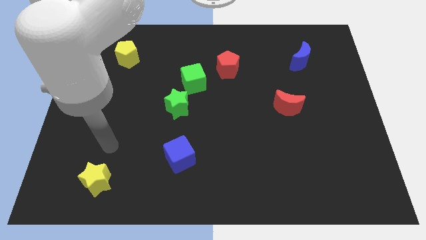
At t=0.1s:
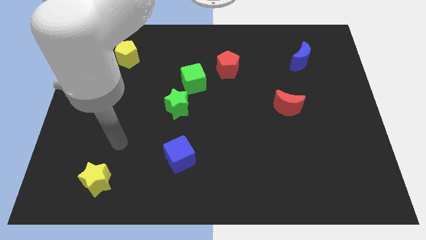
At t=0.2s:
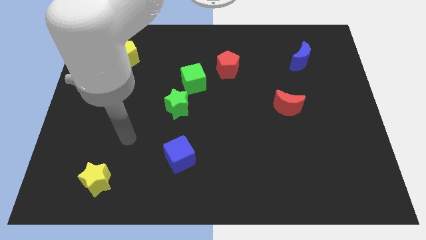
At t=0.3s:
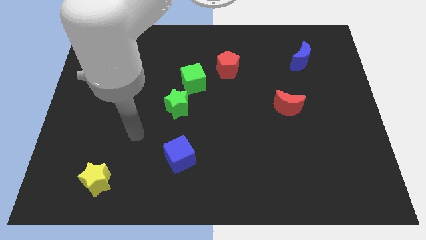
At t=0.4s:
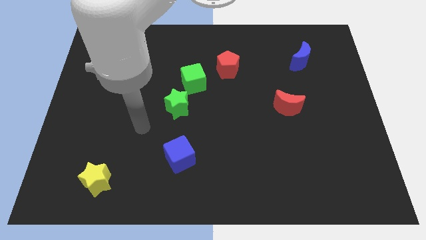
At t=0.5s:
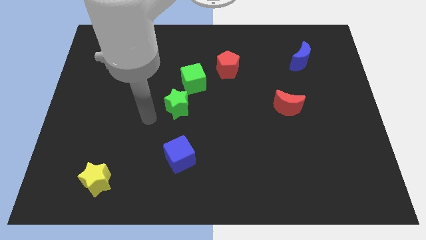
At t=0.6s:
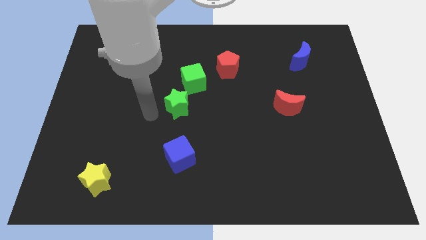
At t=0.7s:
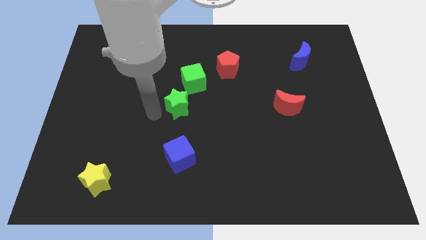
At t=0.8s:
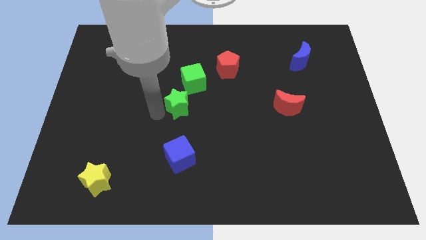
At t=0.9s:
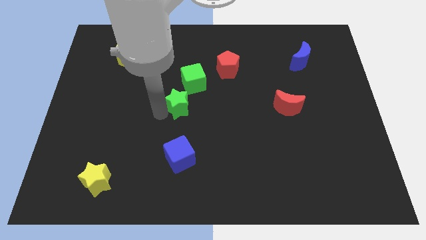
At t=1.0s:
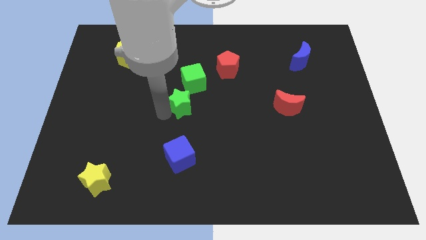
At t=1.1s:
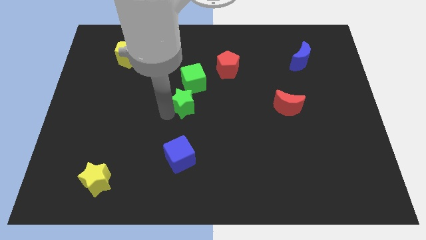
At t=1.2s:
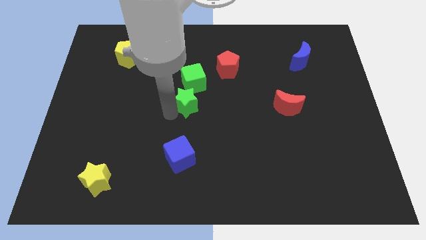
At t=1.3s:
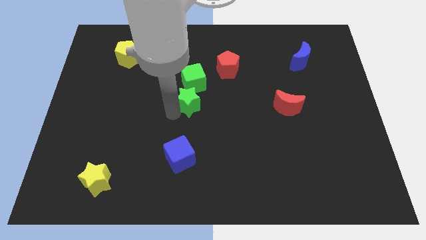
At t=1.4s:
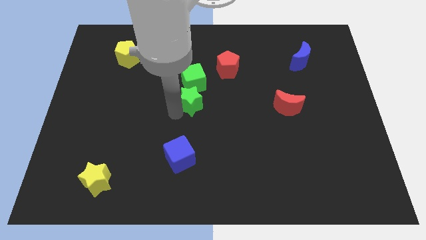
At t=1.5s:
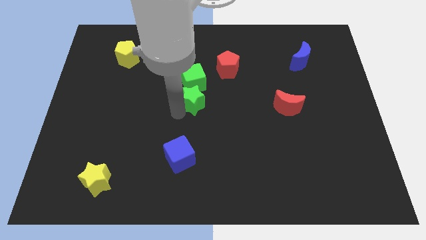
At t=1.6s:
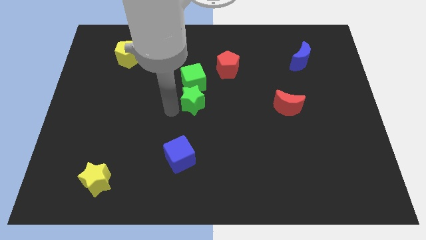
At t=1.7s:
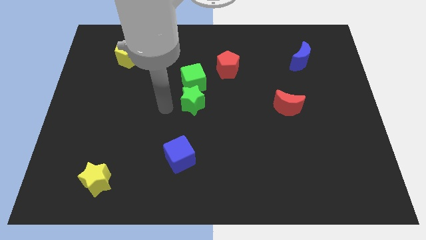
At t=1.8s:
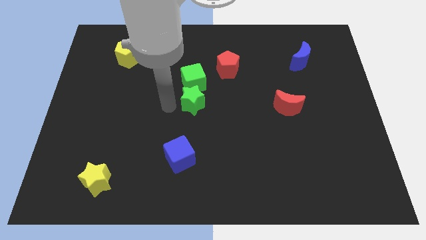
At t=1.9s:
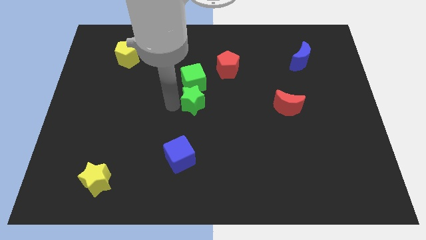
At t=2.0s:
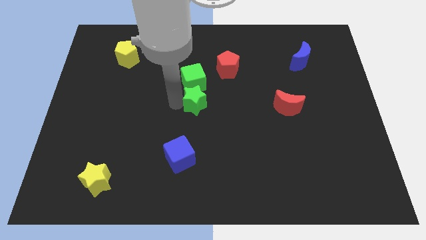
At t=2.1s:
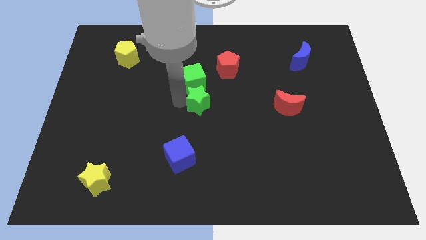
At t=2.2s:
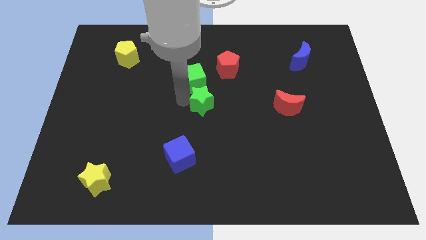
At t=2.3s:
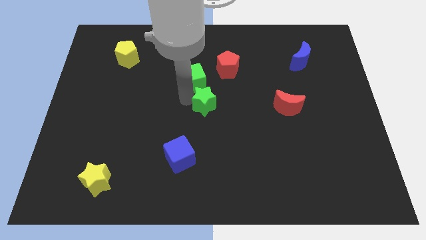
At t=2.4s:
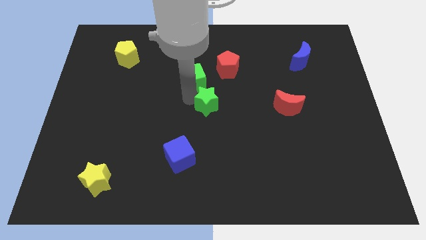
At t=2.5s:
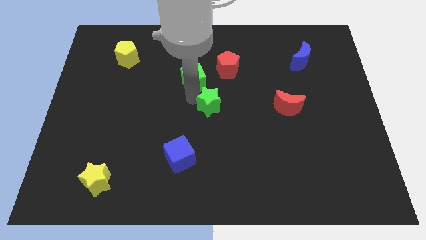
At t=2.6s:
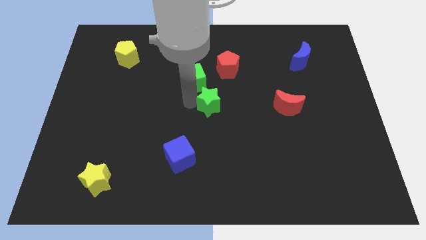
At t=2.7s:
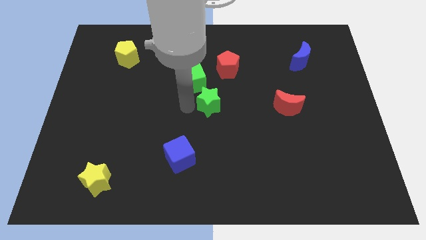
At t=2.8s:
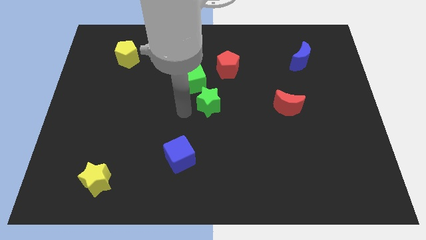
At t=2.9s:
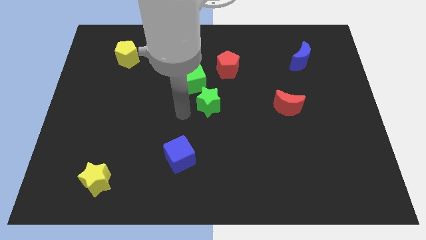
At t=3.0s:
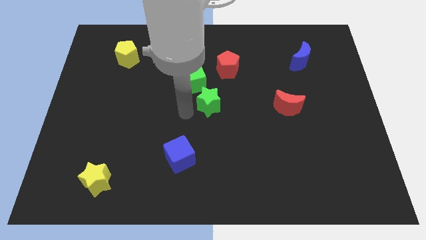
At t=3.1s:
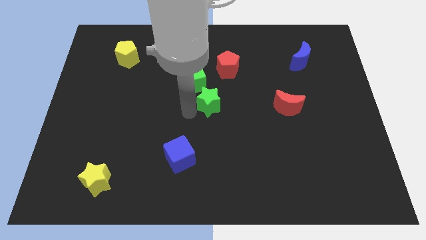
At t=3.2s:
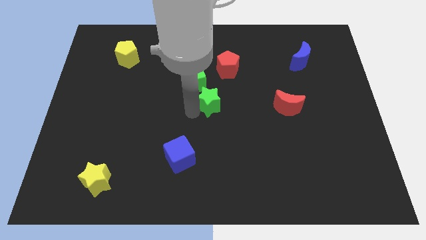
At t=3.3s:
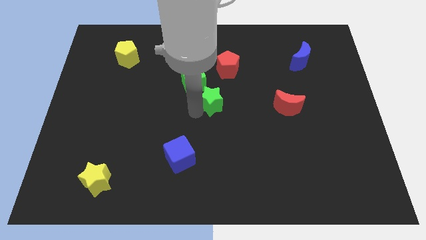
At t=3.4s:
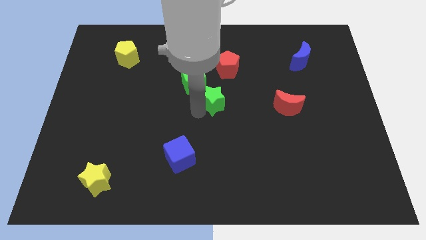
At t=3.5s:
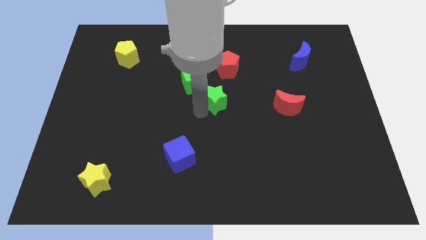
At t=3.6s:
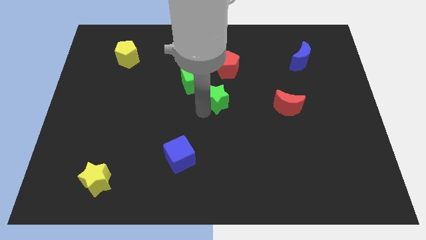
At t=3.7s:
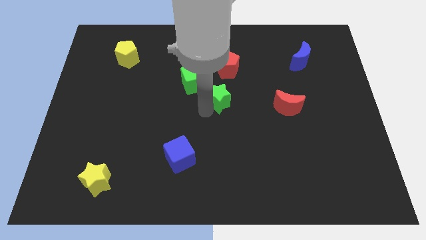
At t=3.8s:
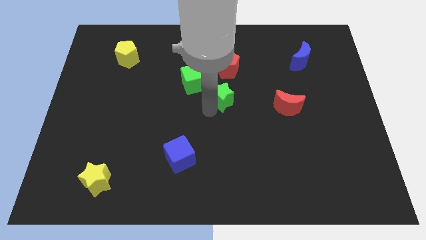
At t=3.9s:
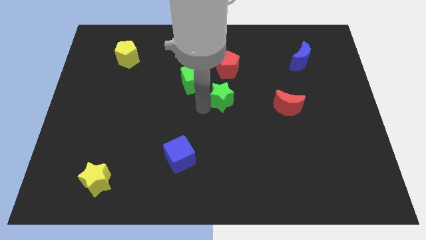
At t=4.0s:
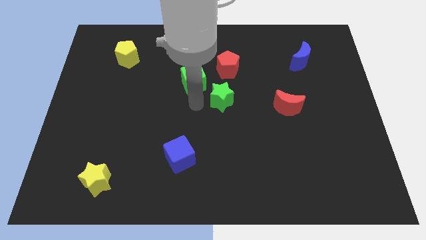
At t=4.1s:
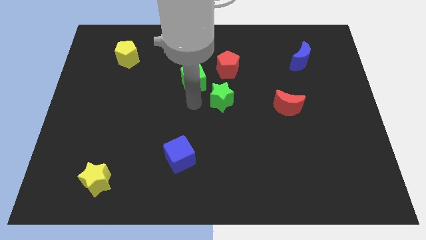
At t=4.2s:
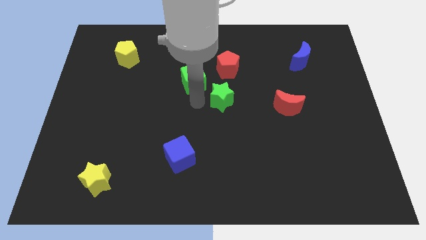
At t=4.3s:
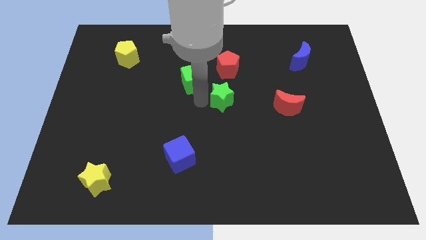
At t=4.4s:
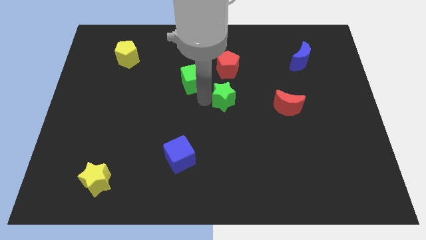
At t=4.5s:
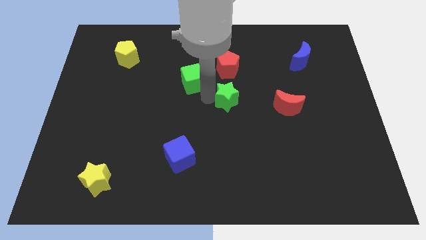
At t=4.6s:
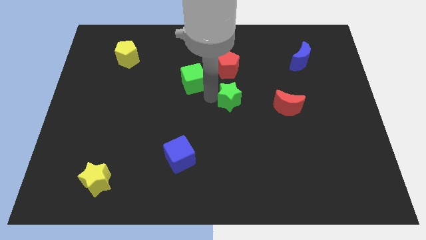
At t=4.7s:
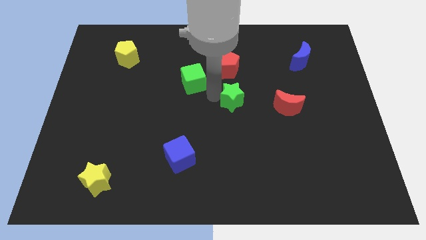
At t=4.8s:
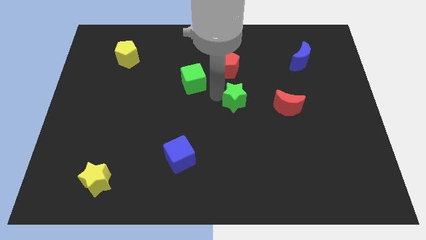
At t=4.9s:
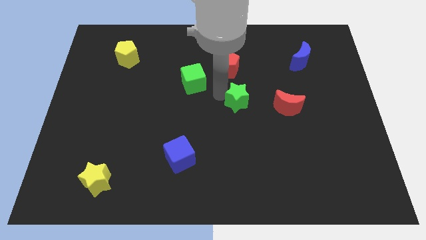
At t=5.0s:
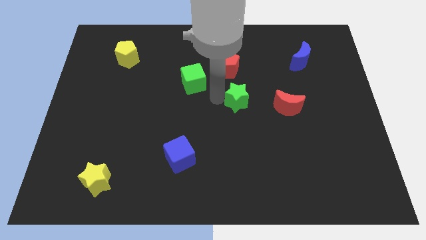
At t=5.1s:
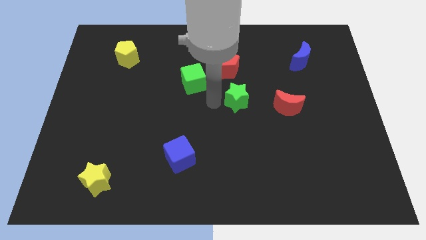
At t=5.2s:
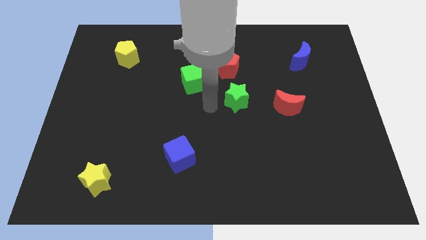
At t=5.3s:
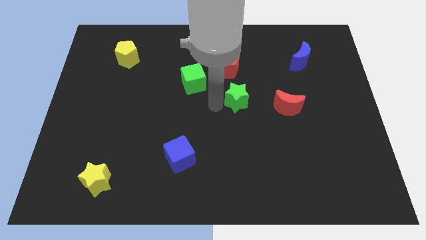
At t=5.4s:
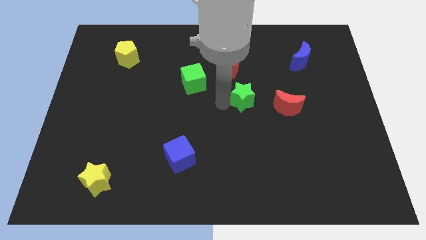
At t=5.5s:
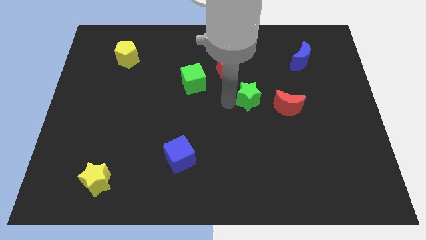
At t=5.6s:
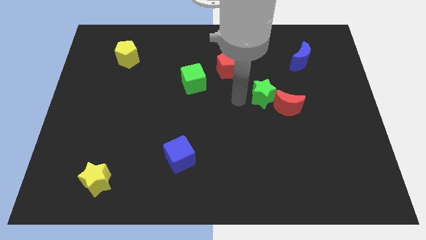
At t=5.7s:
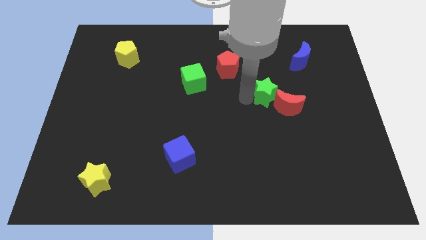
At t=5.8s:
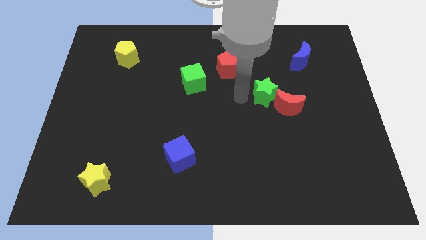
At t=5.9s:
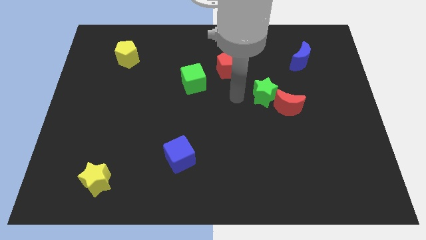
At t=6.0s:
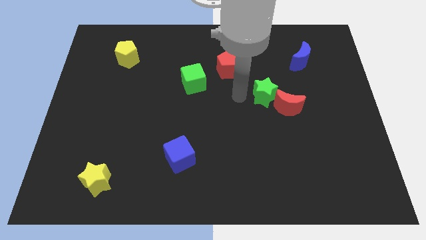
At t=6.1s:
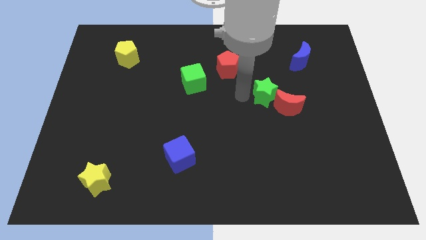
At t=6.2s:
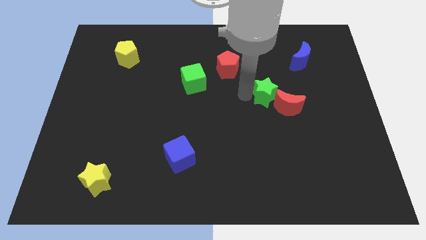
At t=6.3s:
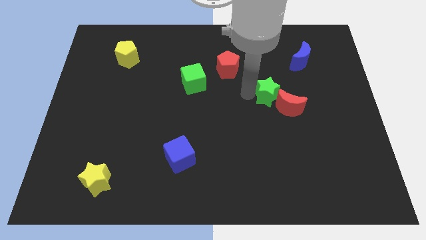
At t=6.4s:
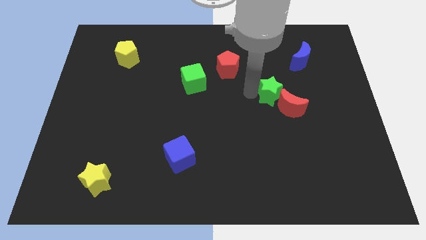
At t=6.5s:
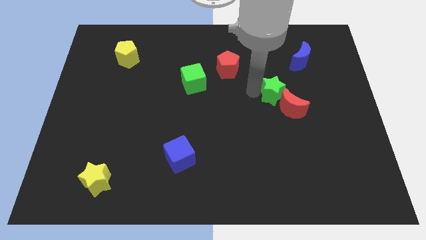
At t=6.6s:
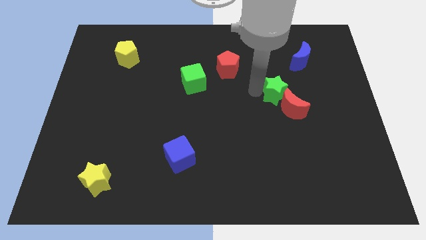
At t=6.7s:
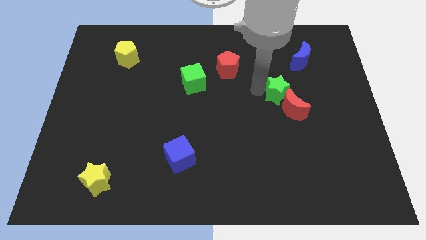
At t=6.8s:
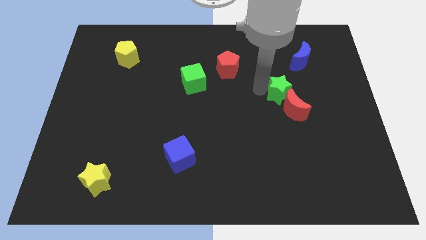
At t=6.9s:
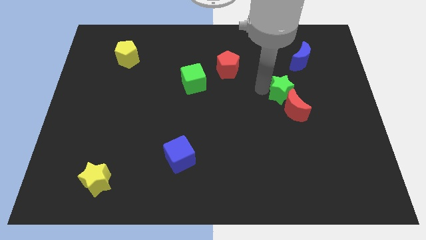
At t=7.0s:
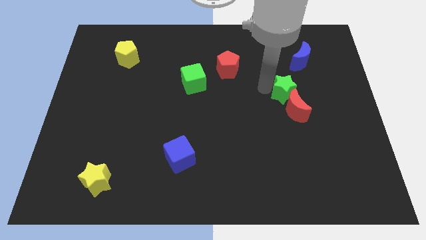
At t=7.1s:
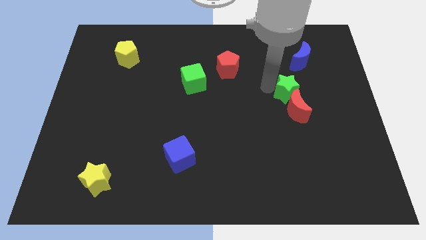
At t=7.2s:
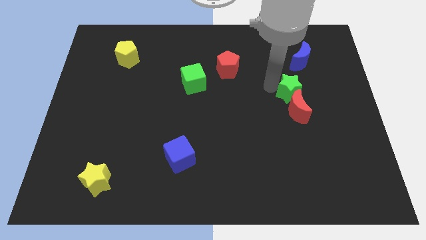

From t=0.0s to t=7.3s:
slide the green star below the blue moon
